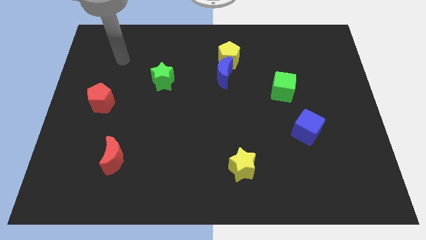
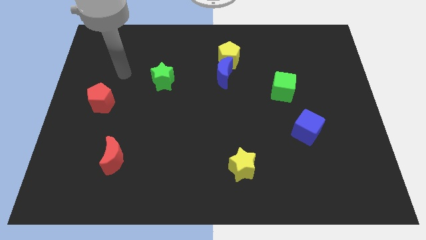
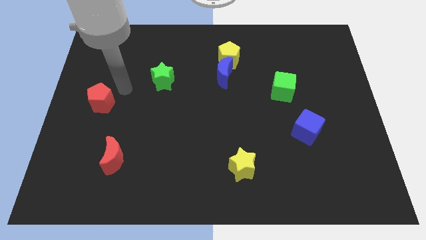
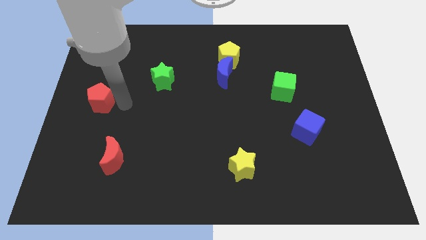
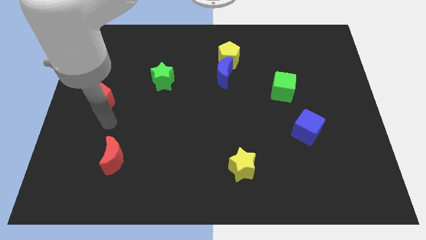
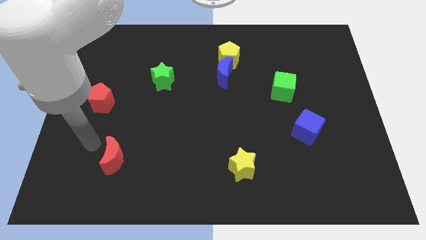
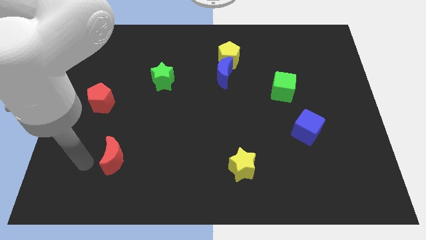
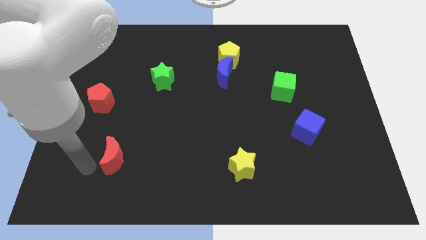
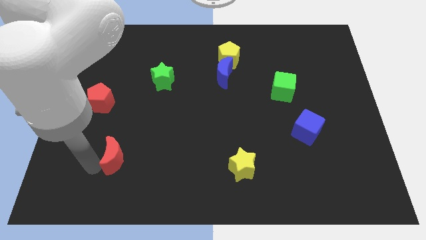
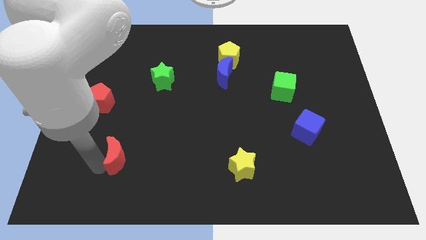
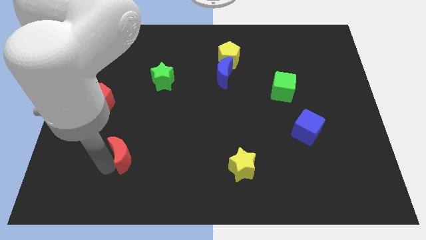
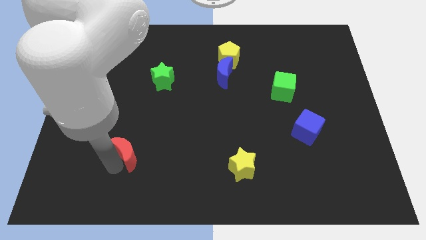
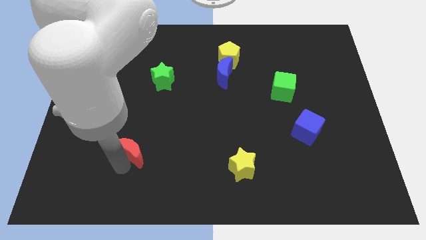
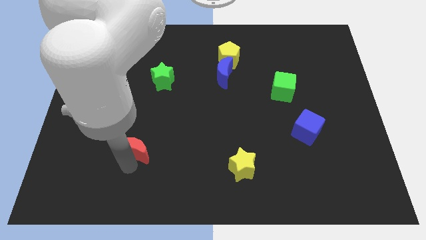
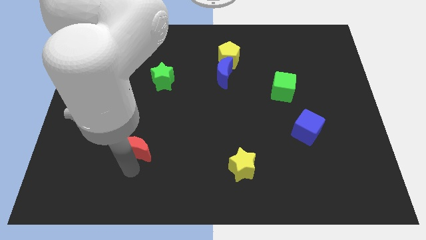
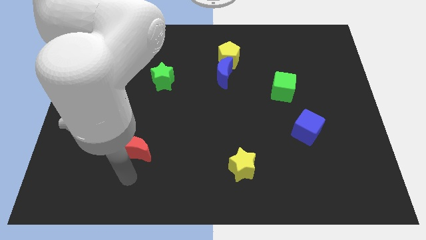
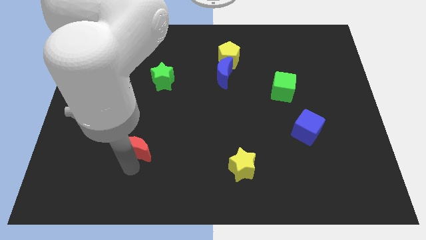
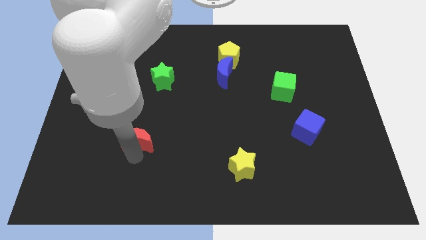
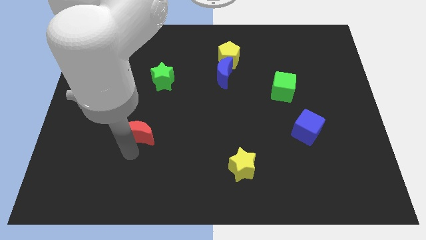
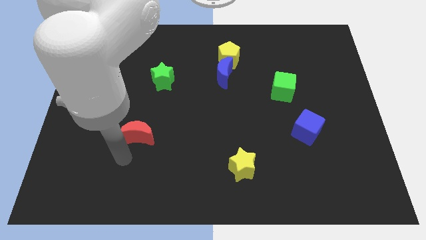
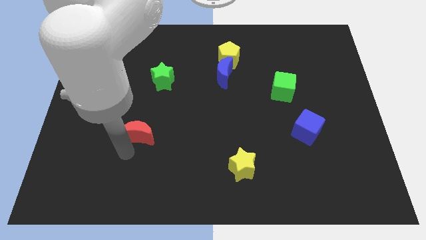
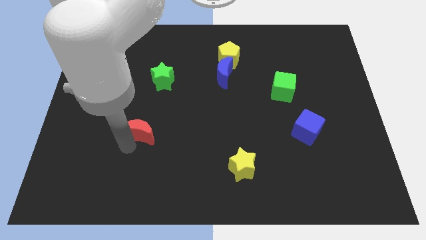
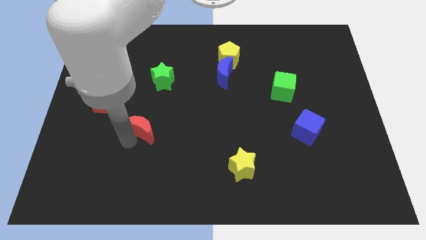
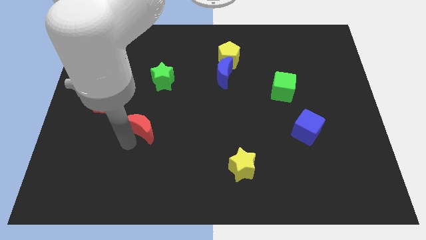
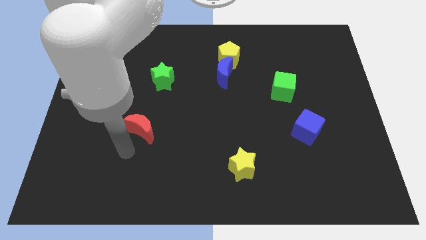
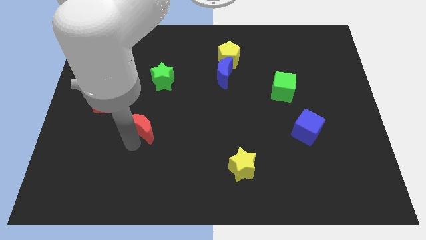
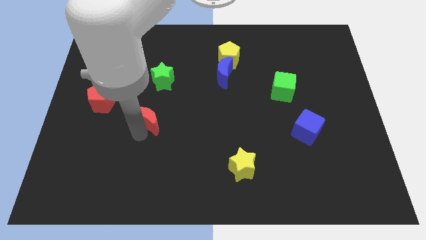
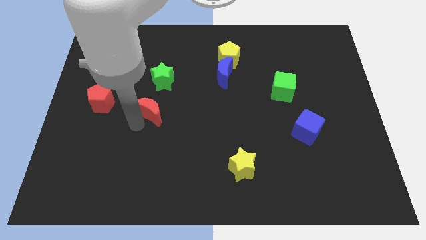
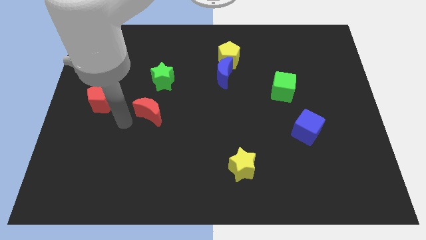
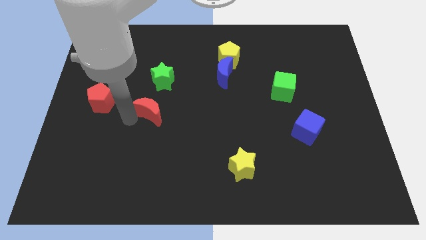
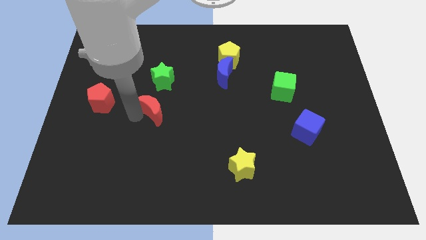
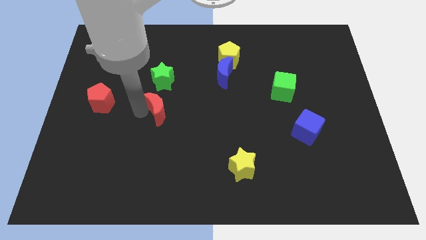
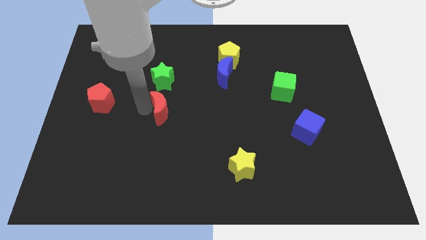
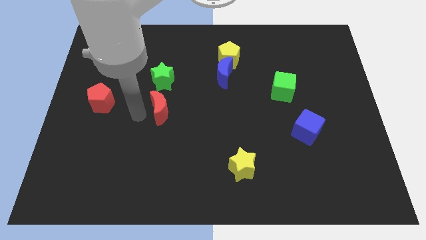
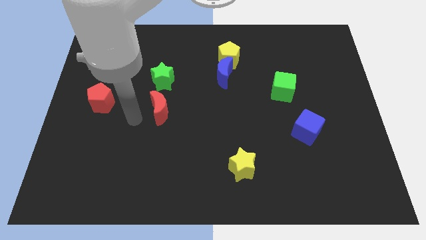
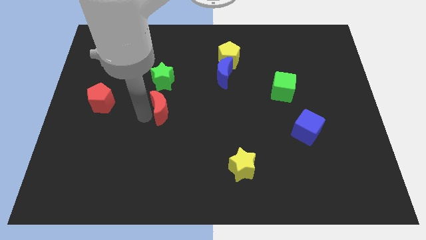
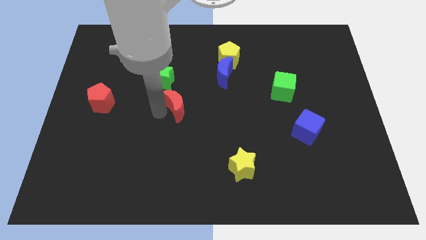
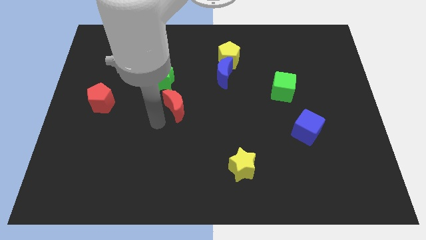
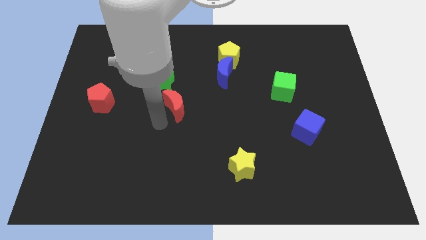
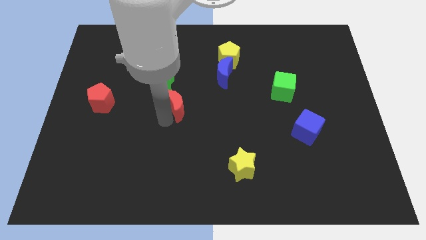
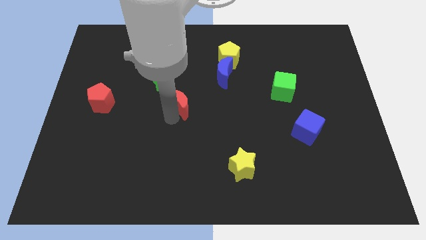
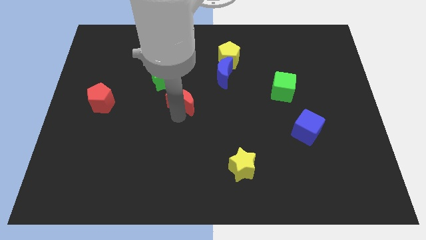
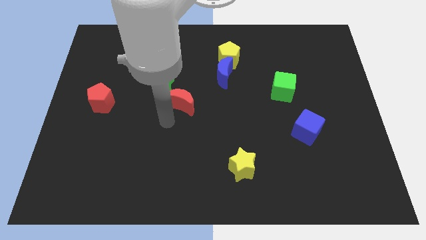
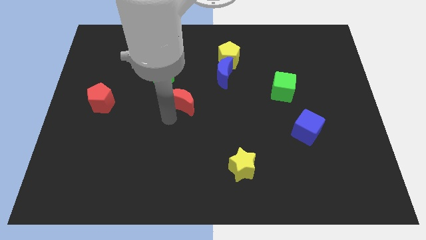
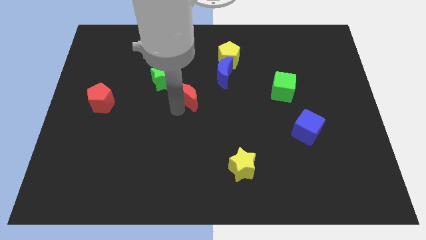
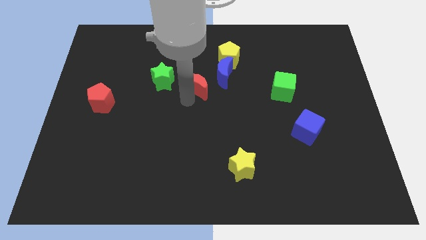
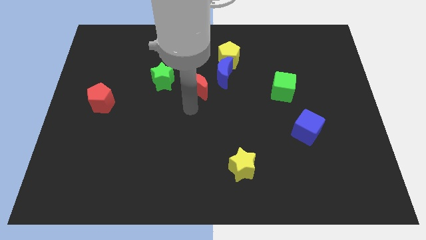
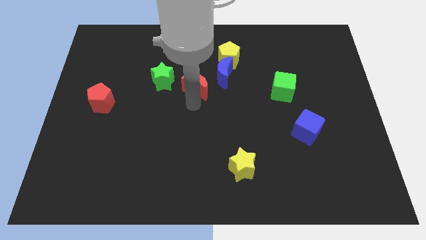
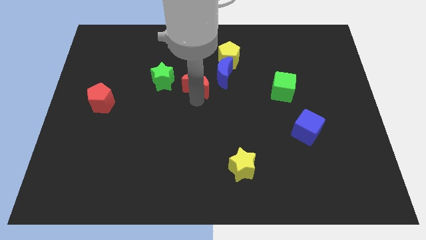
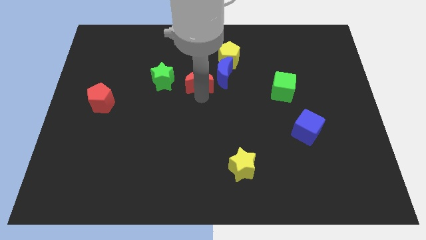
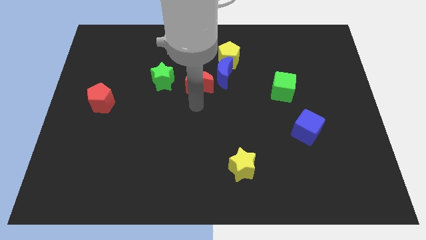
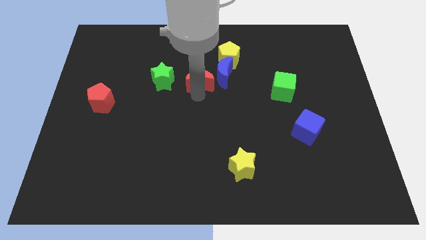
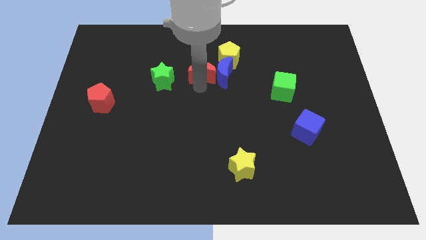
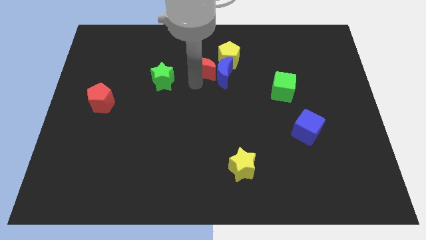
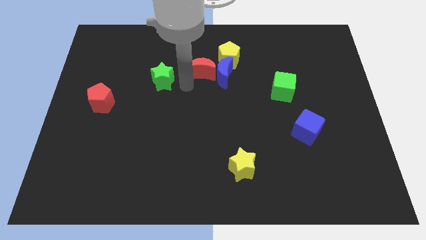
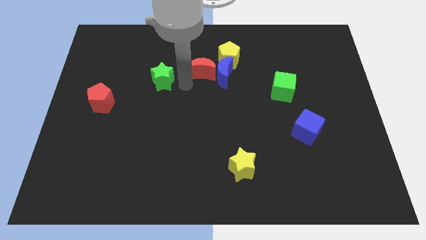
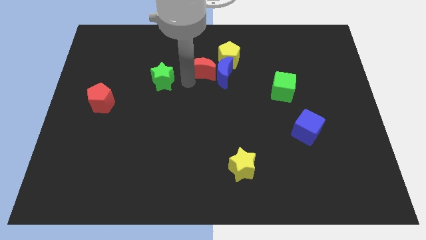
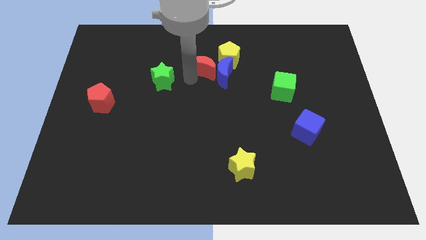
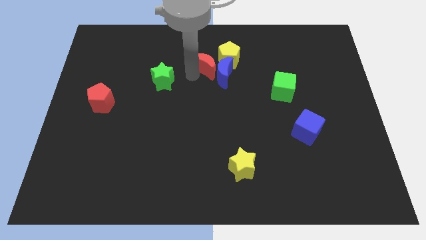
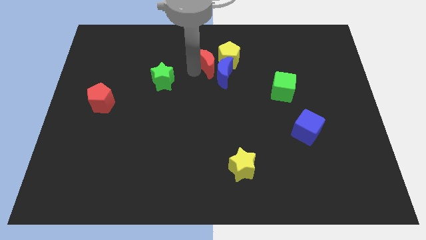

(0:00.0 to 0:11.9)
put the red moon to the yellow pentagon

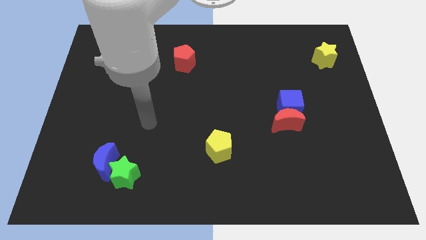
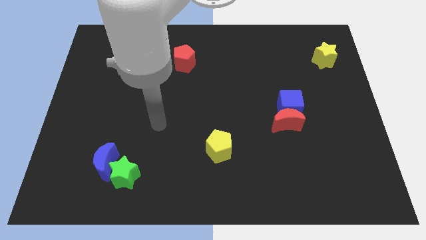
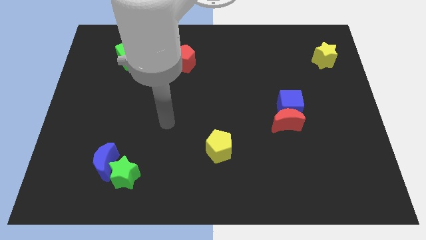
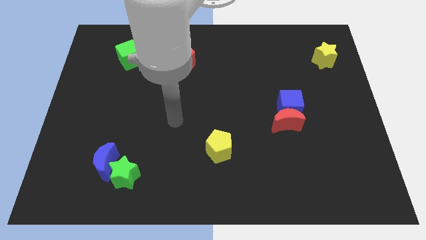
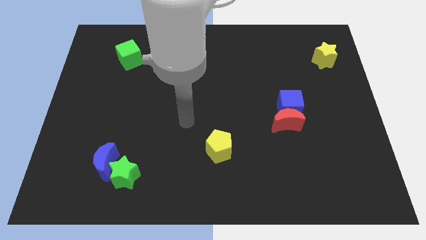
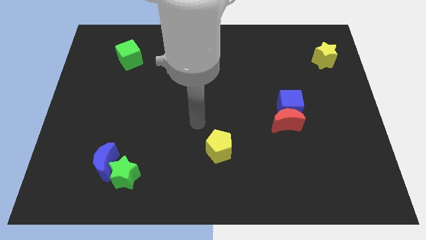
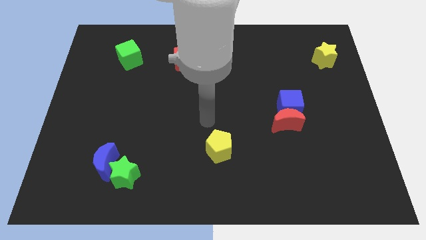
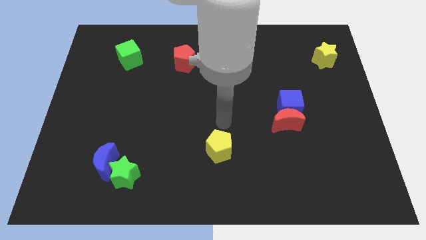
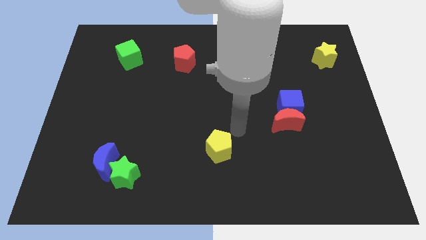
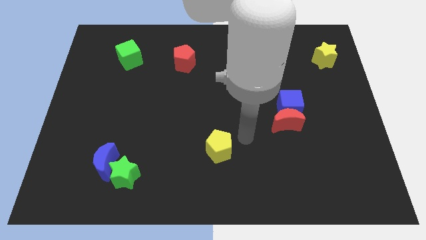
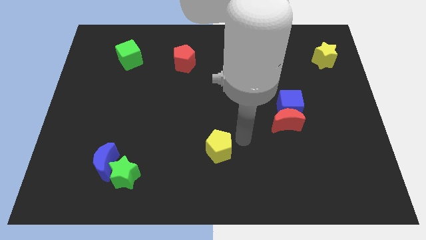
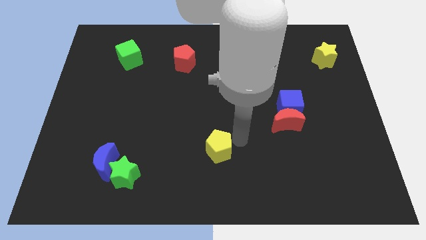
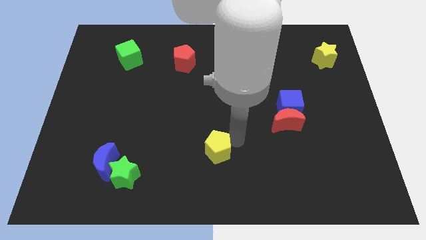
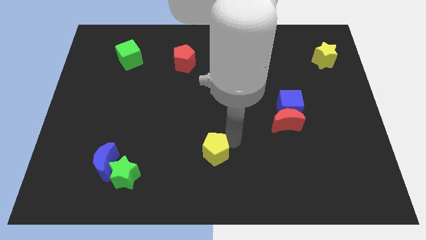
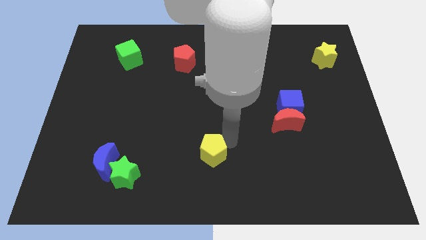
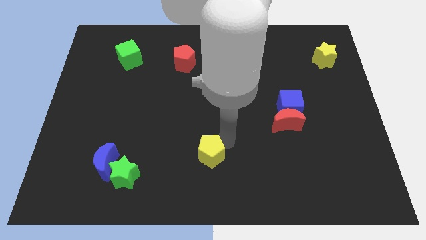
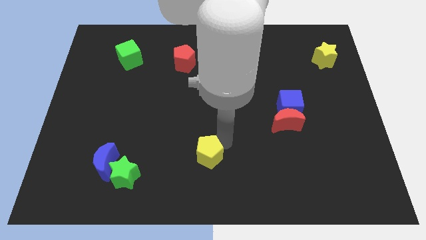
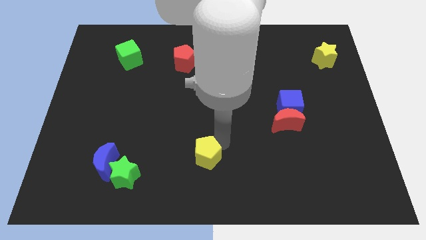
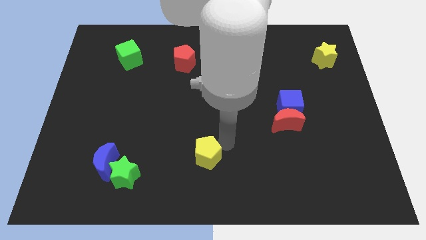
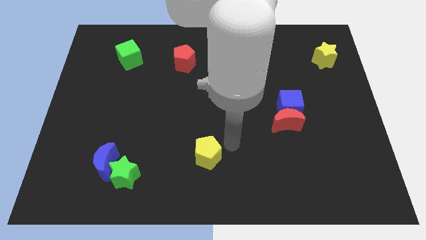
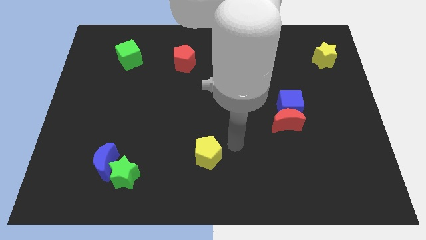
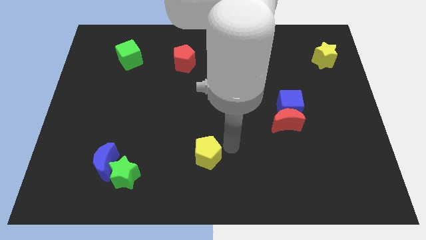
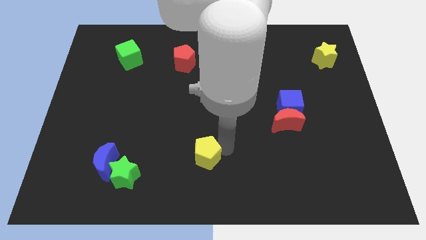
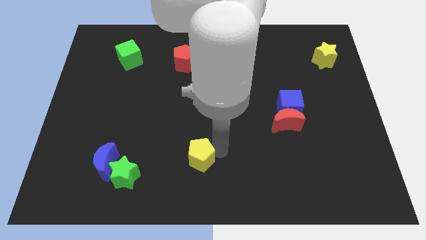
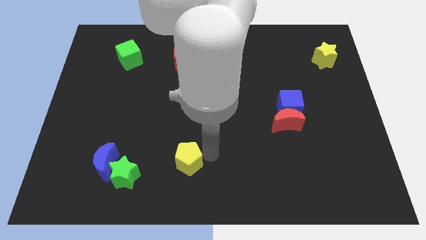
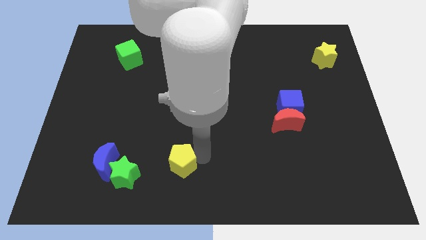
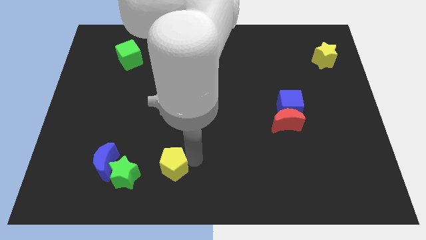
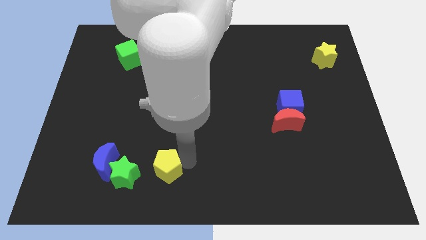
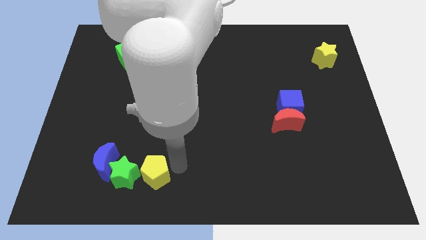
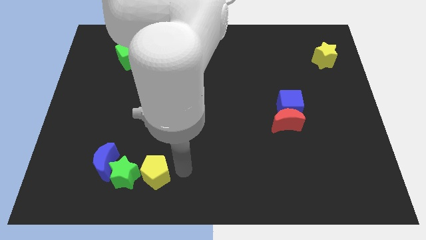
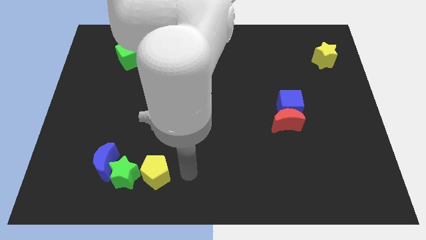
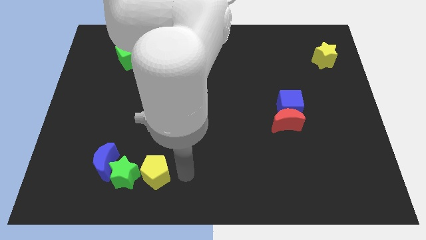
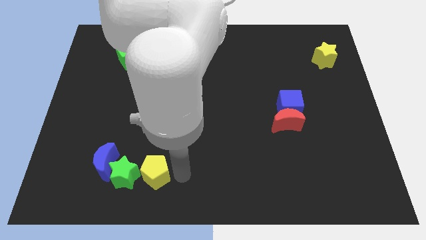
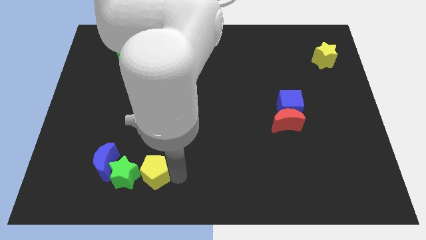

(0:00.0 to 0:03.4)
push the yellow pentagon to the green star
